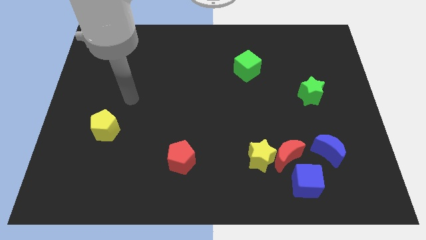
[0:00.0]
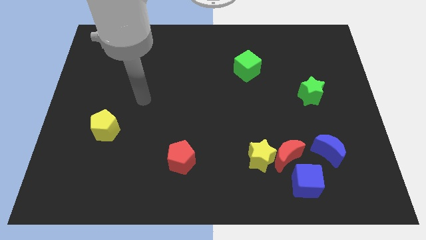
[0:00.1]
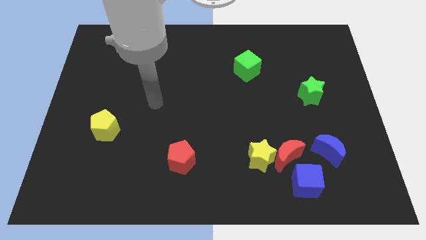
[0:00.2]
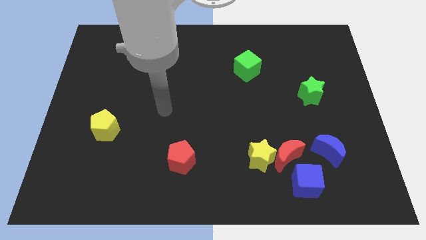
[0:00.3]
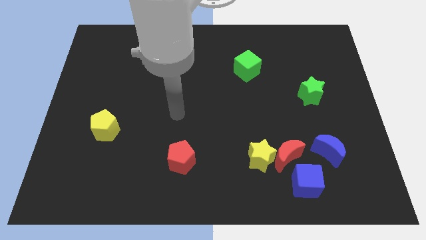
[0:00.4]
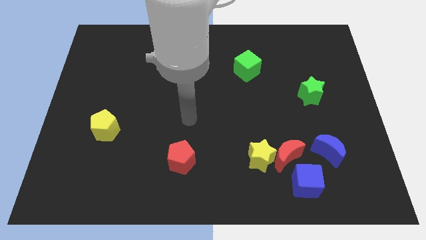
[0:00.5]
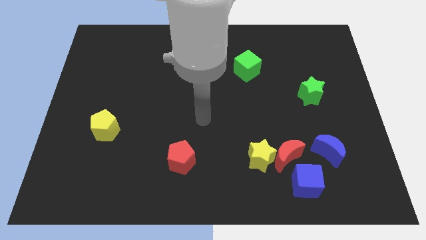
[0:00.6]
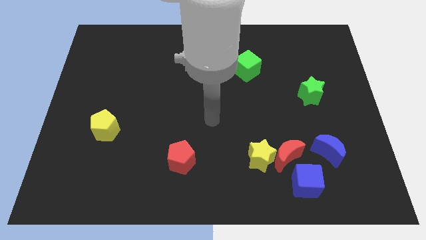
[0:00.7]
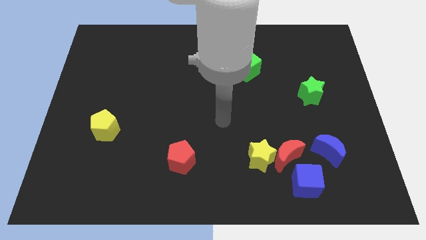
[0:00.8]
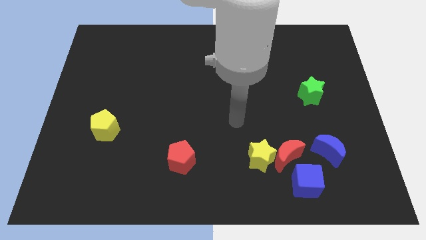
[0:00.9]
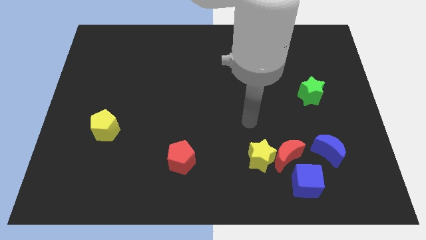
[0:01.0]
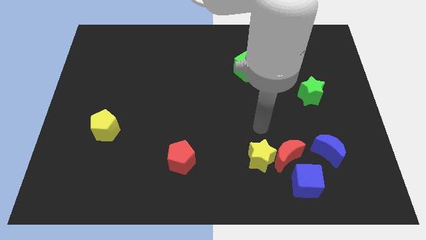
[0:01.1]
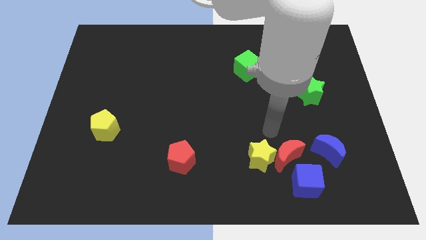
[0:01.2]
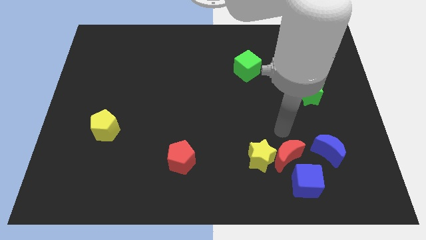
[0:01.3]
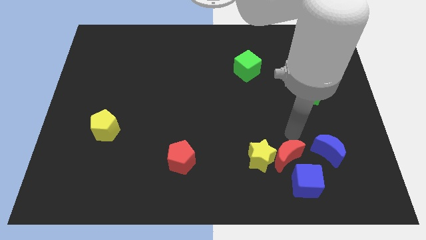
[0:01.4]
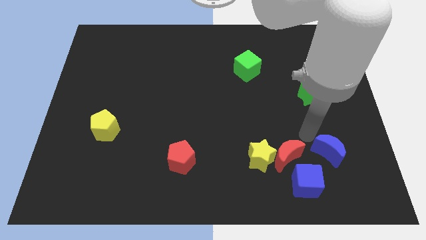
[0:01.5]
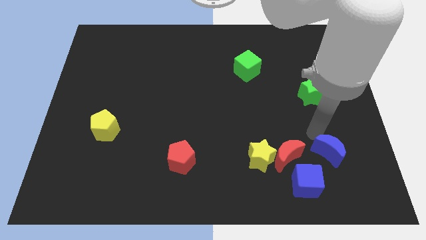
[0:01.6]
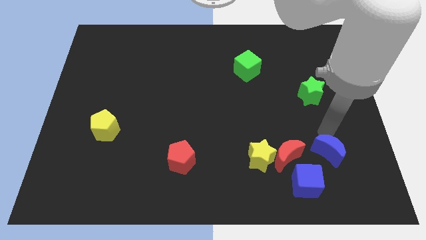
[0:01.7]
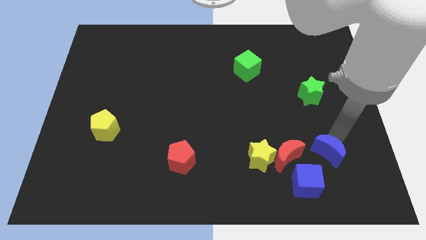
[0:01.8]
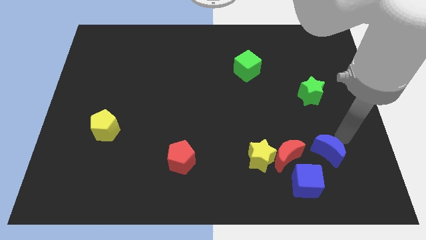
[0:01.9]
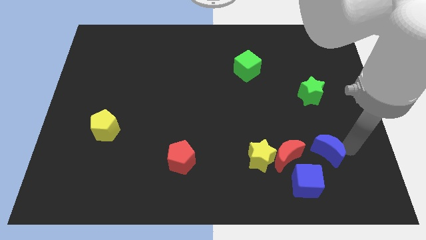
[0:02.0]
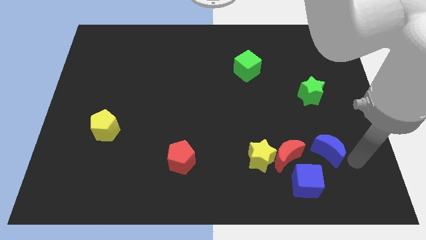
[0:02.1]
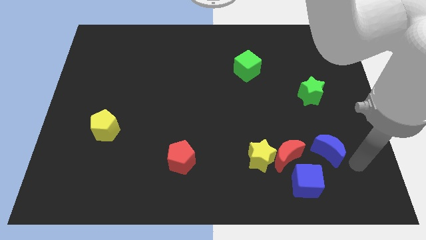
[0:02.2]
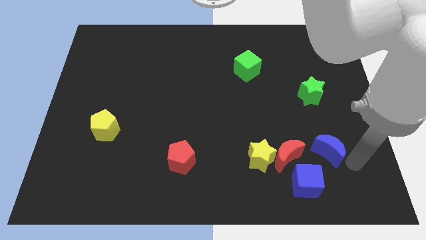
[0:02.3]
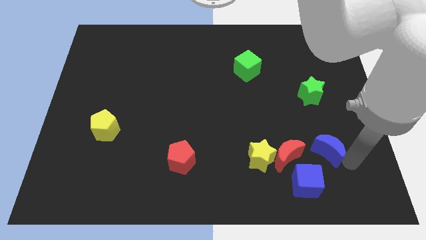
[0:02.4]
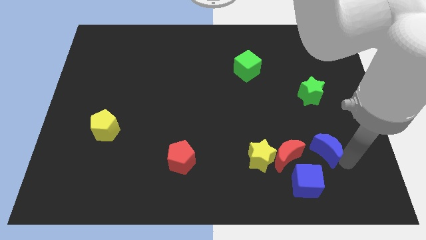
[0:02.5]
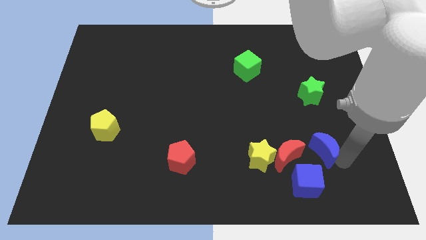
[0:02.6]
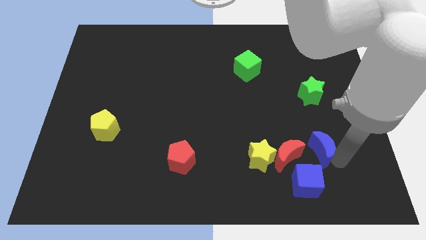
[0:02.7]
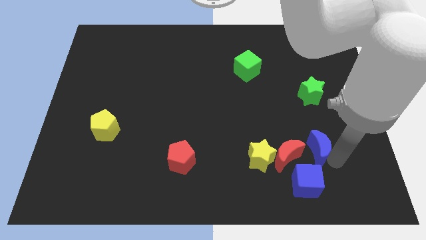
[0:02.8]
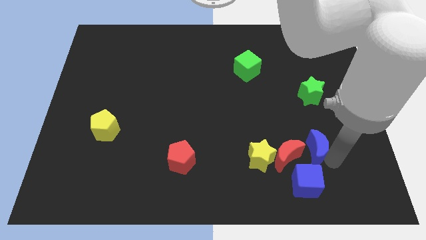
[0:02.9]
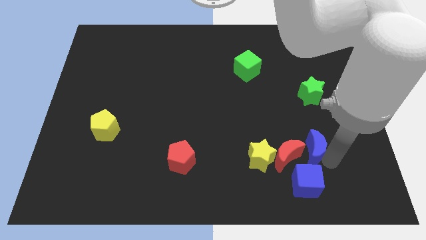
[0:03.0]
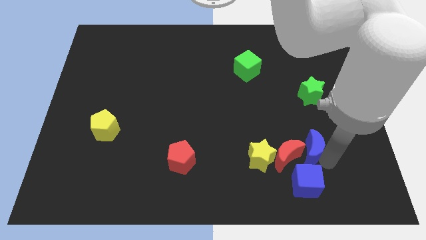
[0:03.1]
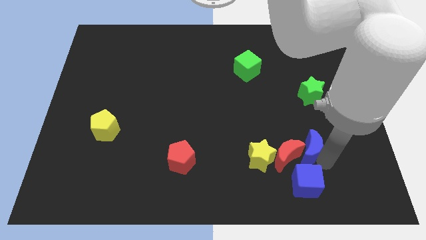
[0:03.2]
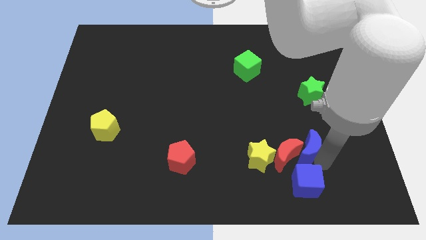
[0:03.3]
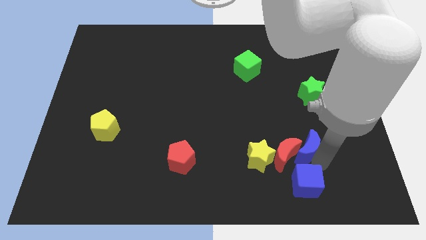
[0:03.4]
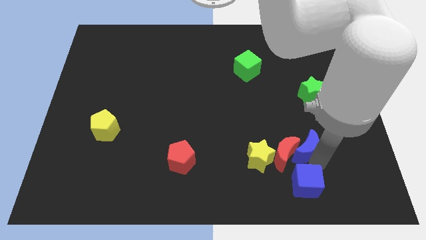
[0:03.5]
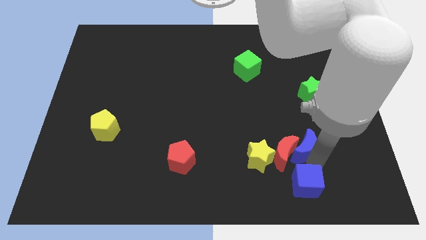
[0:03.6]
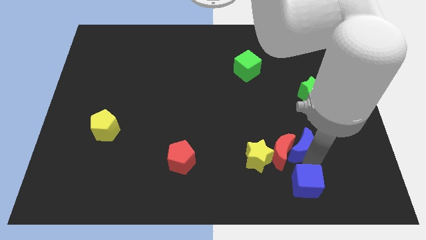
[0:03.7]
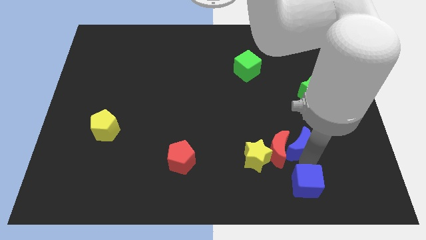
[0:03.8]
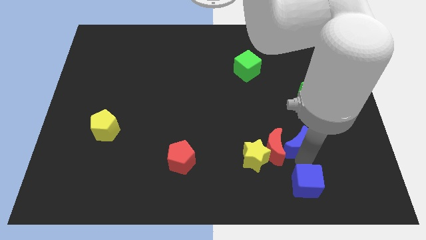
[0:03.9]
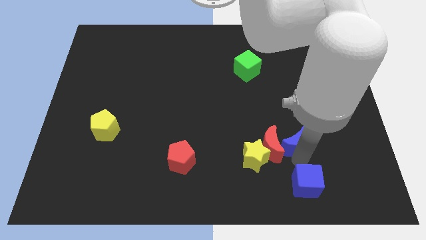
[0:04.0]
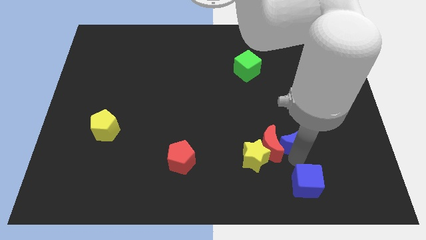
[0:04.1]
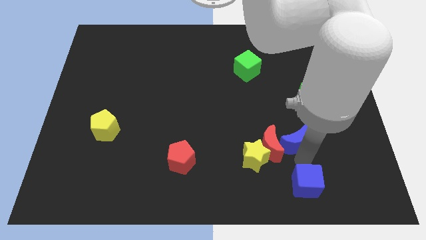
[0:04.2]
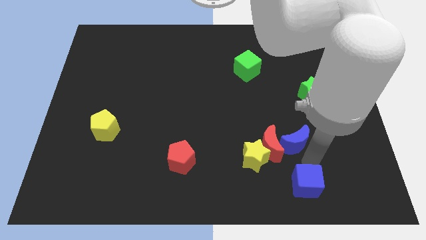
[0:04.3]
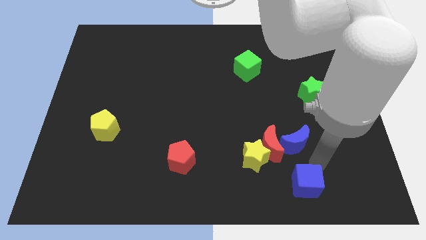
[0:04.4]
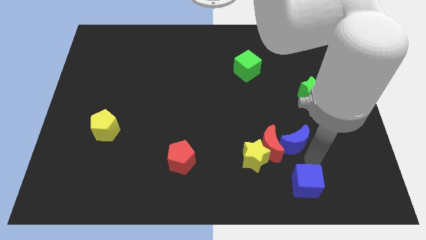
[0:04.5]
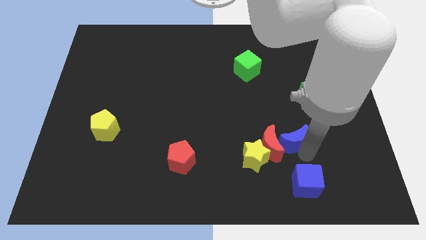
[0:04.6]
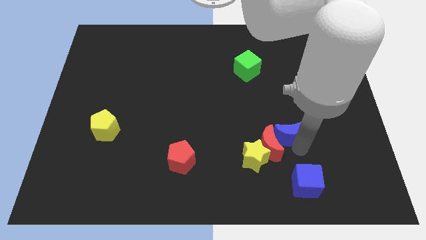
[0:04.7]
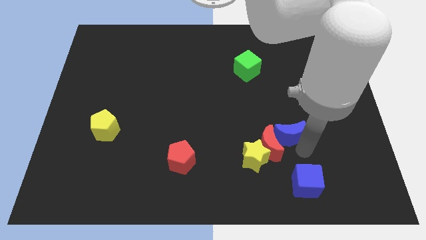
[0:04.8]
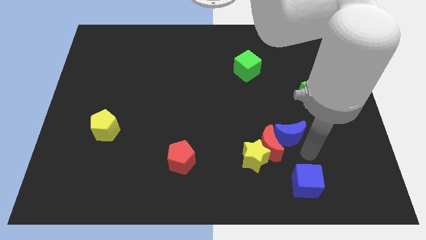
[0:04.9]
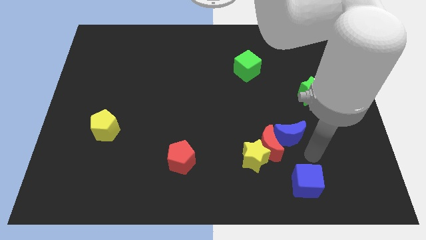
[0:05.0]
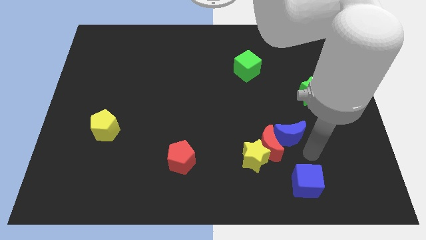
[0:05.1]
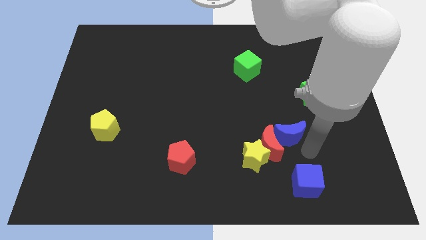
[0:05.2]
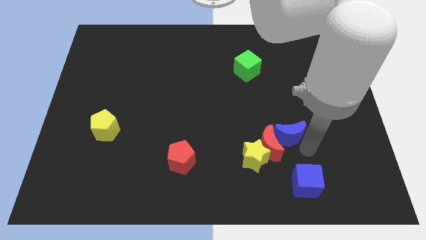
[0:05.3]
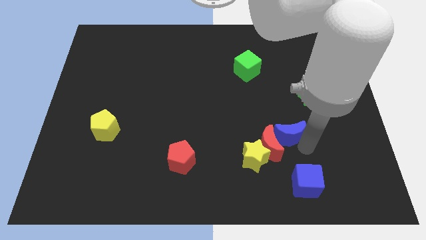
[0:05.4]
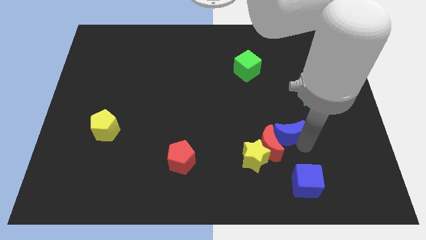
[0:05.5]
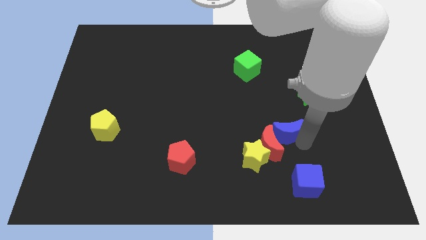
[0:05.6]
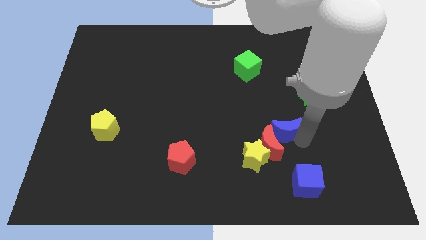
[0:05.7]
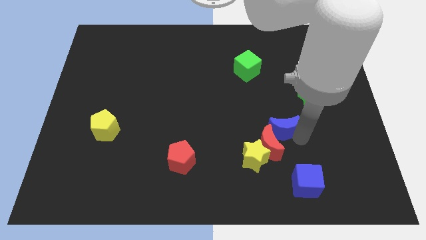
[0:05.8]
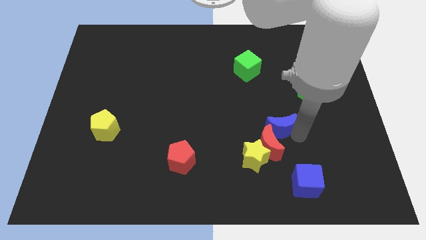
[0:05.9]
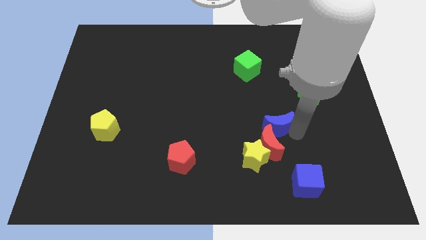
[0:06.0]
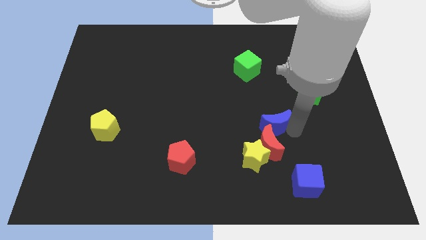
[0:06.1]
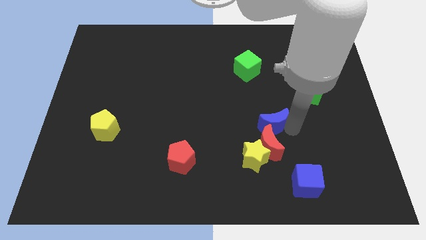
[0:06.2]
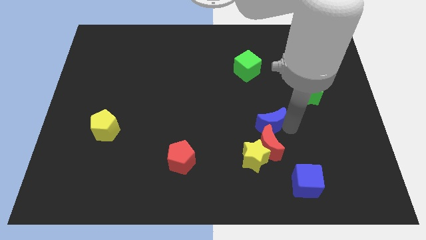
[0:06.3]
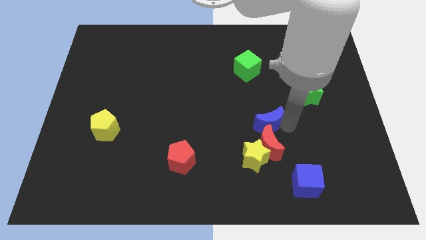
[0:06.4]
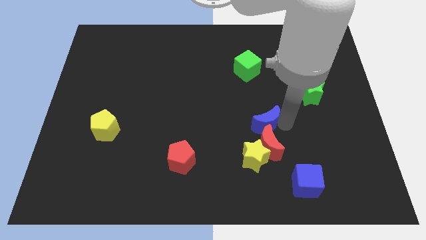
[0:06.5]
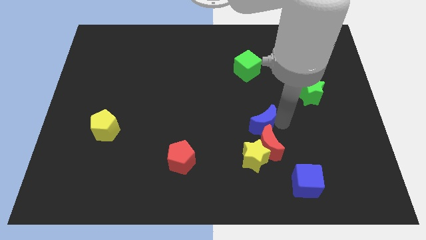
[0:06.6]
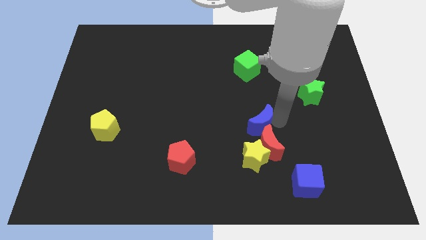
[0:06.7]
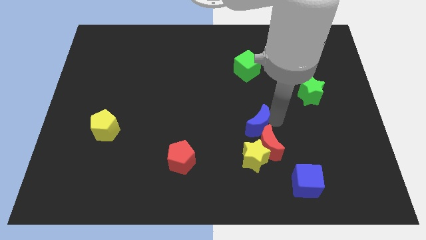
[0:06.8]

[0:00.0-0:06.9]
move the blue moon to the middle of the board

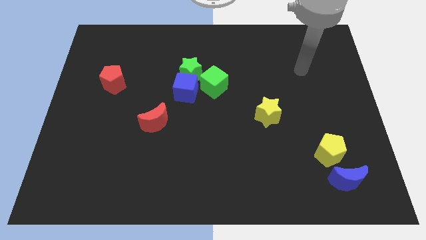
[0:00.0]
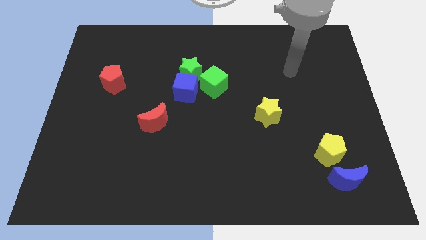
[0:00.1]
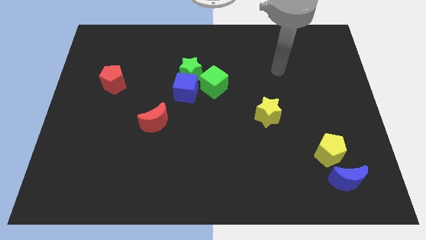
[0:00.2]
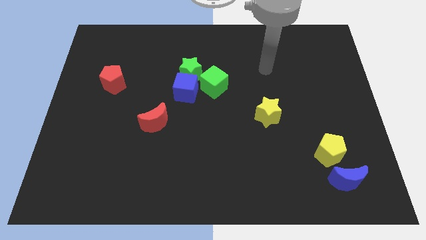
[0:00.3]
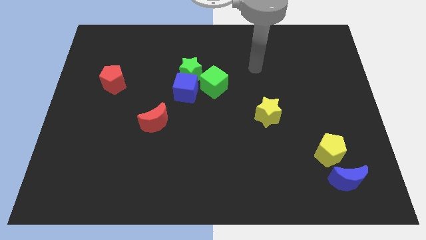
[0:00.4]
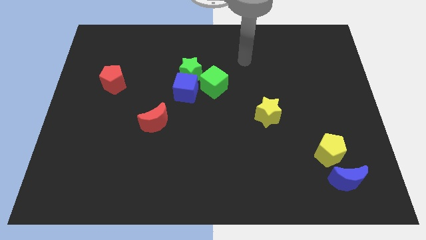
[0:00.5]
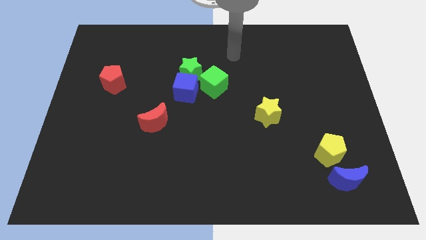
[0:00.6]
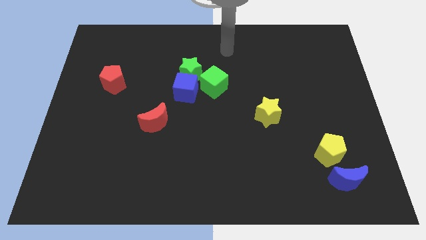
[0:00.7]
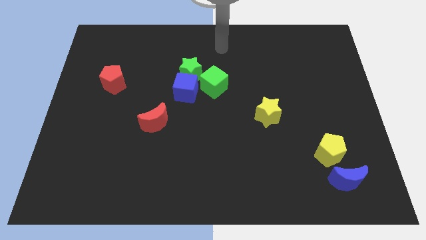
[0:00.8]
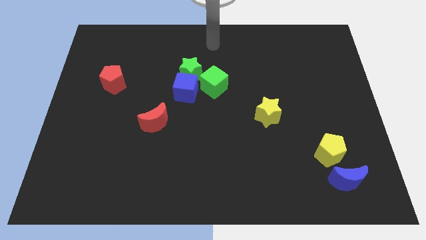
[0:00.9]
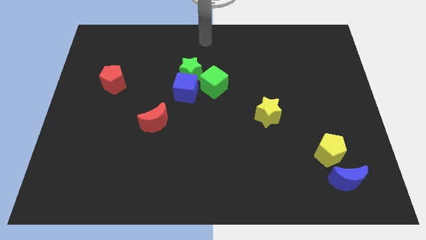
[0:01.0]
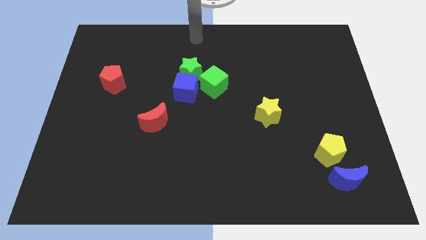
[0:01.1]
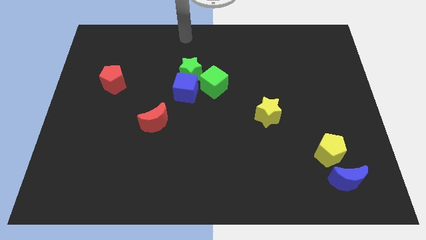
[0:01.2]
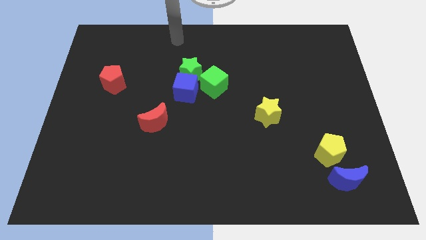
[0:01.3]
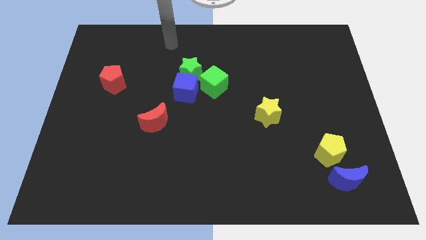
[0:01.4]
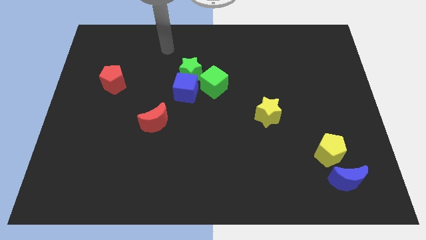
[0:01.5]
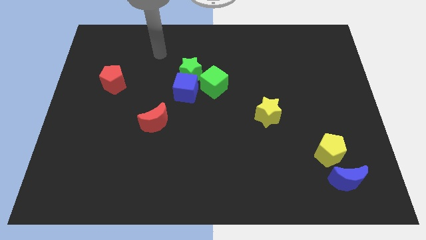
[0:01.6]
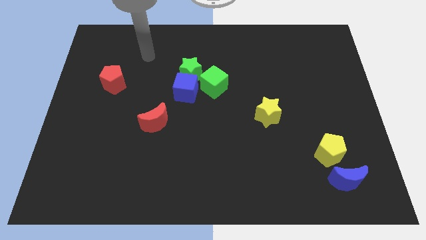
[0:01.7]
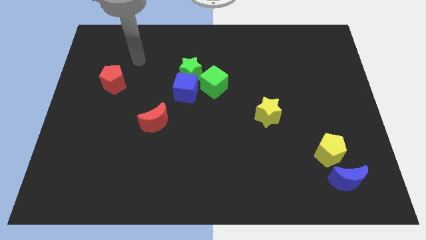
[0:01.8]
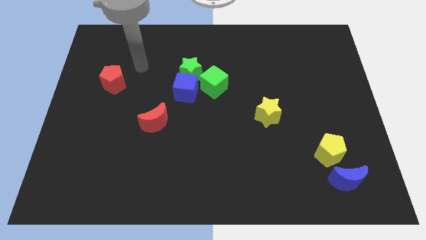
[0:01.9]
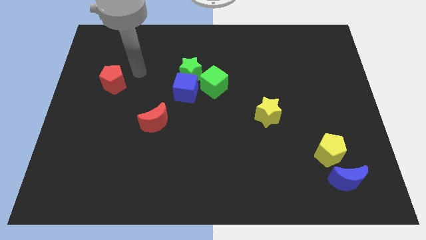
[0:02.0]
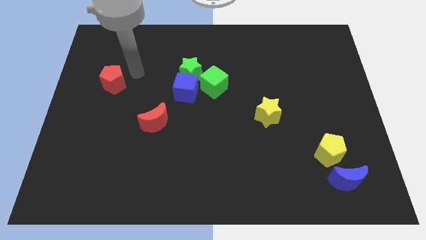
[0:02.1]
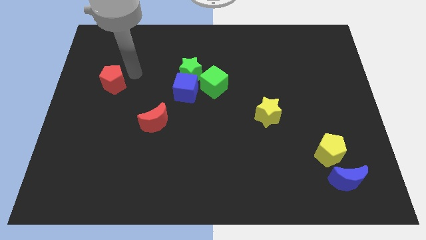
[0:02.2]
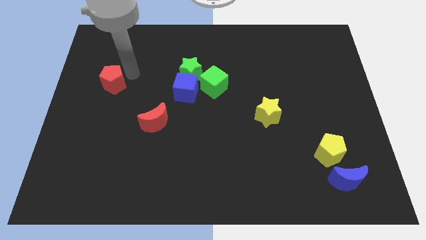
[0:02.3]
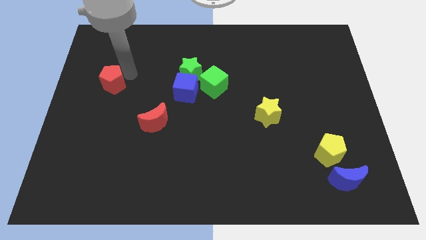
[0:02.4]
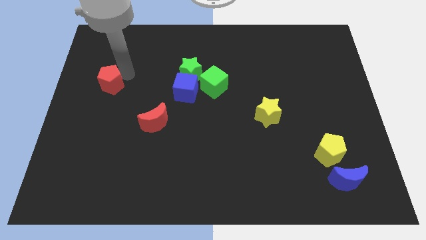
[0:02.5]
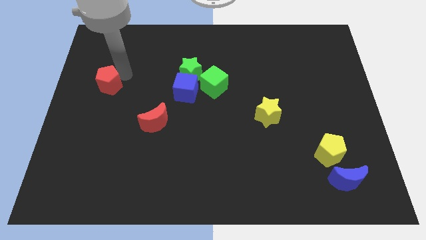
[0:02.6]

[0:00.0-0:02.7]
slide the red pentagon to the left side of the board
